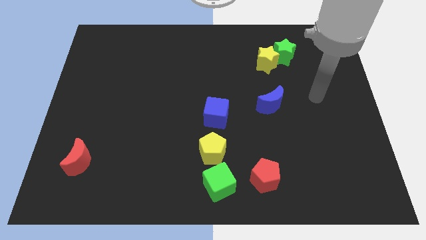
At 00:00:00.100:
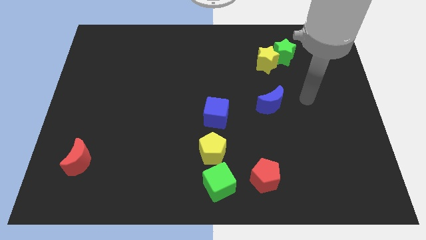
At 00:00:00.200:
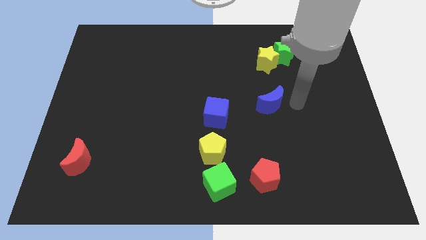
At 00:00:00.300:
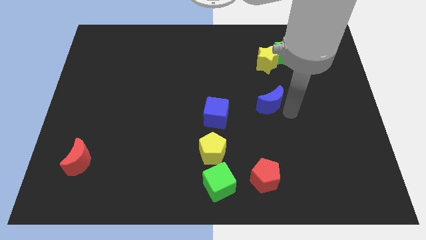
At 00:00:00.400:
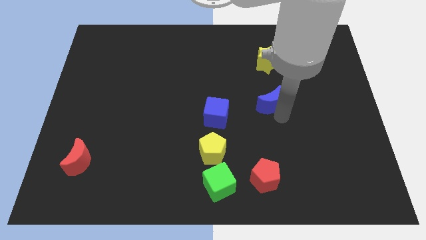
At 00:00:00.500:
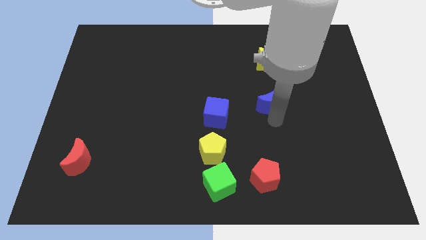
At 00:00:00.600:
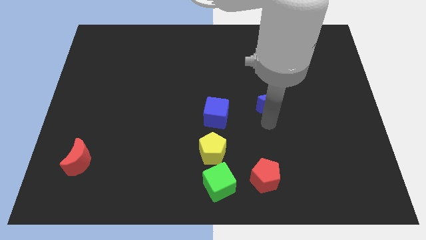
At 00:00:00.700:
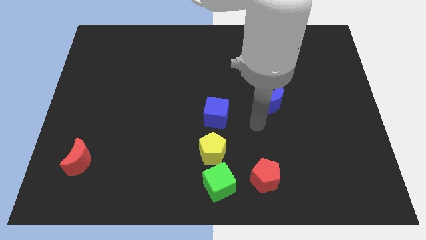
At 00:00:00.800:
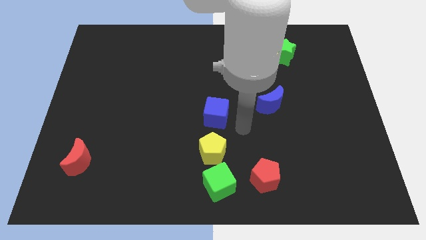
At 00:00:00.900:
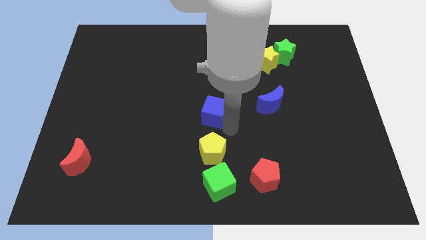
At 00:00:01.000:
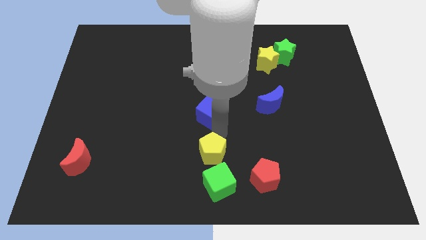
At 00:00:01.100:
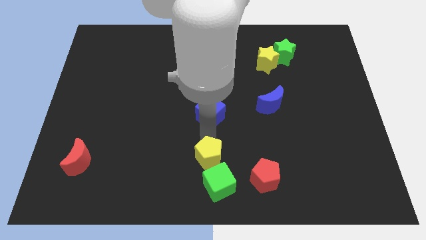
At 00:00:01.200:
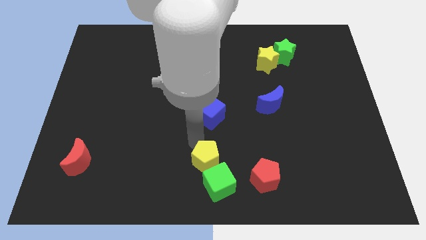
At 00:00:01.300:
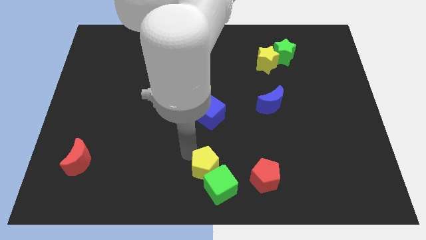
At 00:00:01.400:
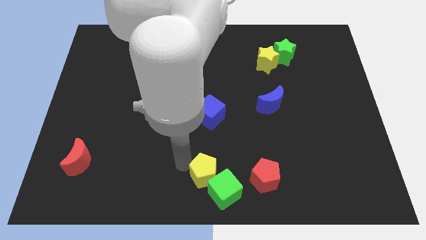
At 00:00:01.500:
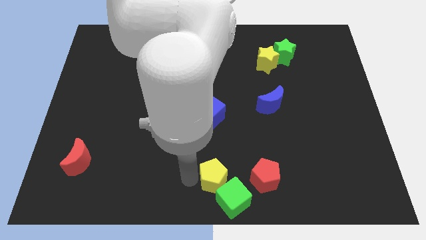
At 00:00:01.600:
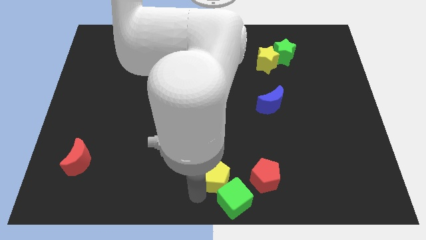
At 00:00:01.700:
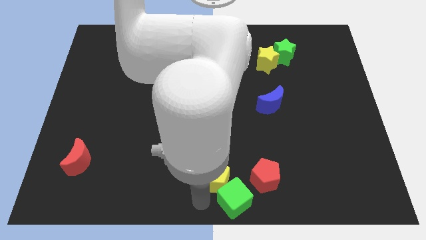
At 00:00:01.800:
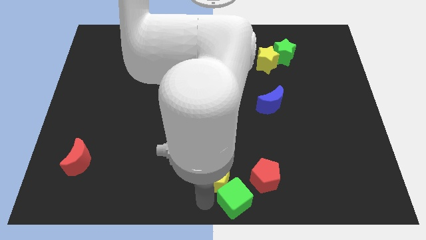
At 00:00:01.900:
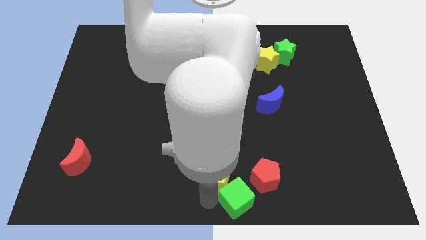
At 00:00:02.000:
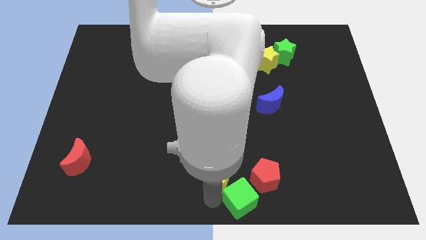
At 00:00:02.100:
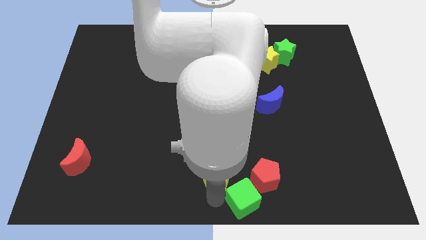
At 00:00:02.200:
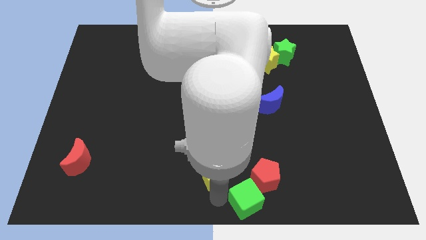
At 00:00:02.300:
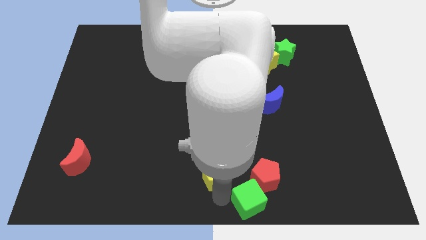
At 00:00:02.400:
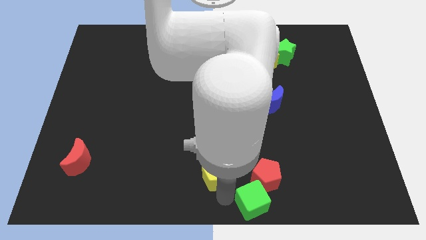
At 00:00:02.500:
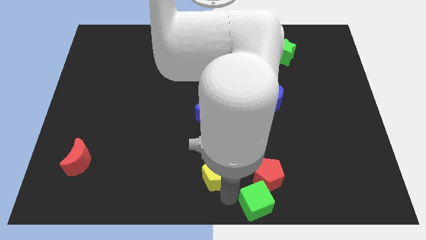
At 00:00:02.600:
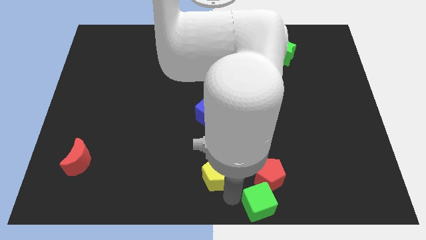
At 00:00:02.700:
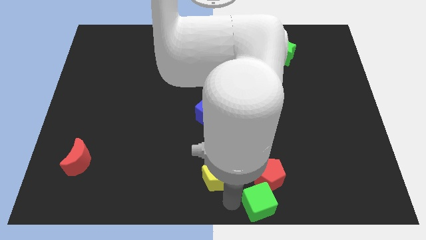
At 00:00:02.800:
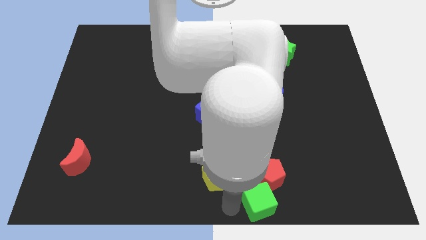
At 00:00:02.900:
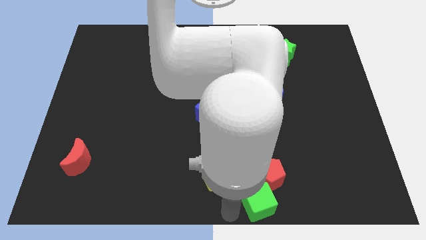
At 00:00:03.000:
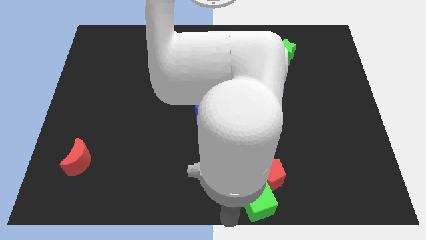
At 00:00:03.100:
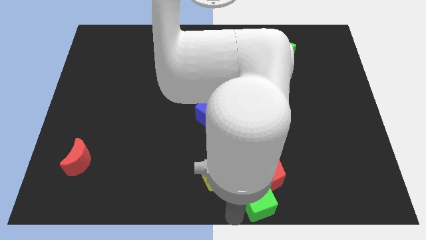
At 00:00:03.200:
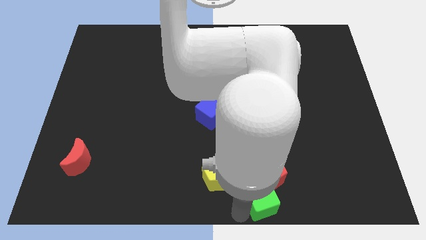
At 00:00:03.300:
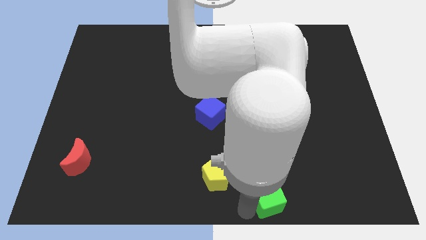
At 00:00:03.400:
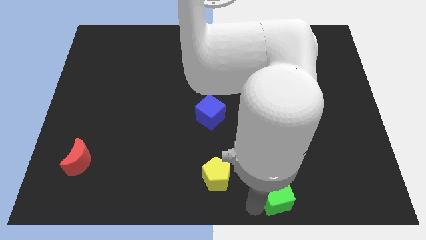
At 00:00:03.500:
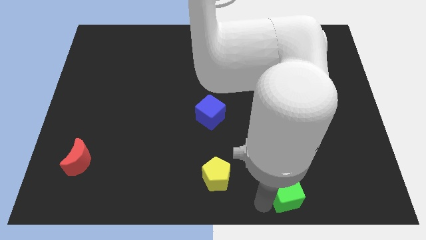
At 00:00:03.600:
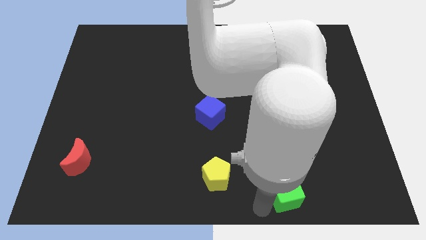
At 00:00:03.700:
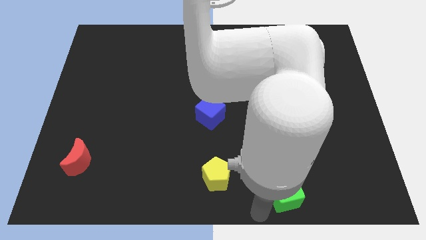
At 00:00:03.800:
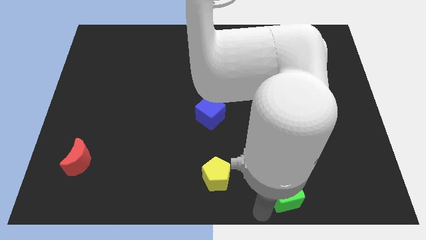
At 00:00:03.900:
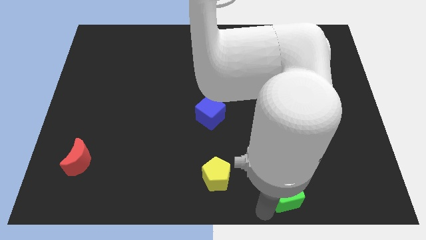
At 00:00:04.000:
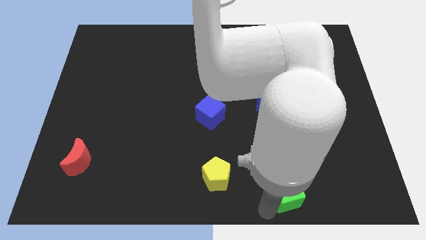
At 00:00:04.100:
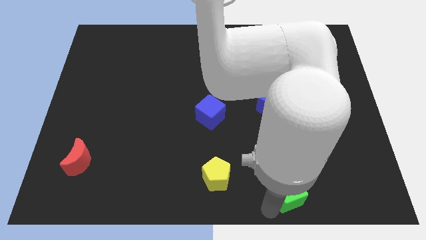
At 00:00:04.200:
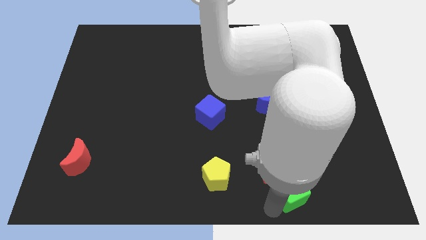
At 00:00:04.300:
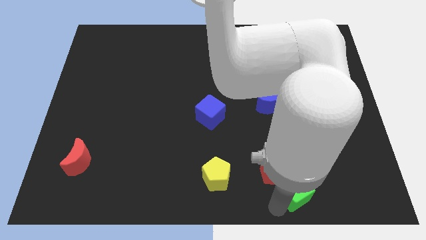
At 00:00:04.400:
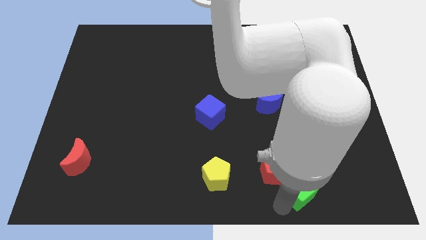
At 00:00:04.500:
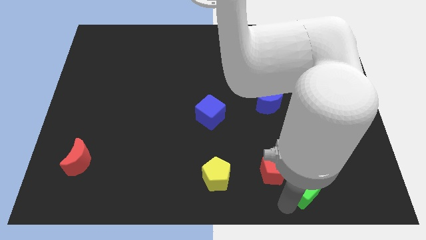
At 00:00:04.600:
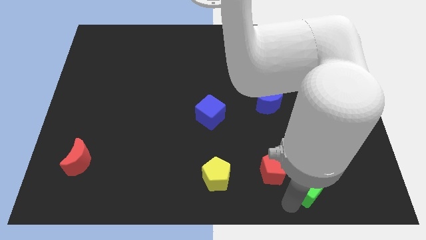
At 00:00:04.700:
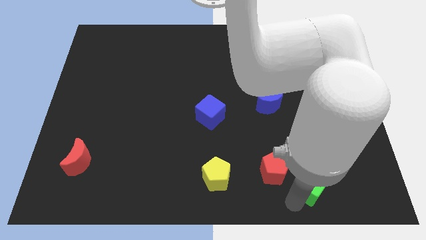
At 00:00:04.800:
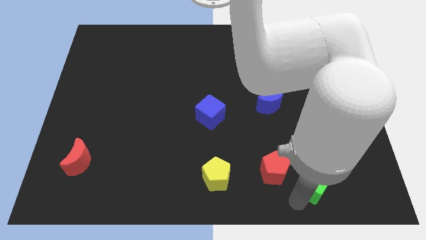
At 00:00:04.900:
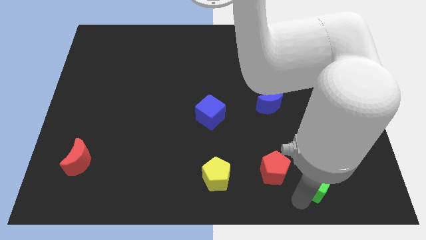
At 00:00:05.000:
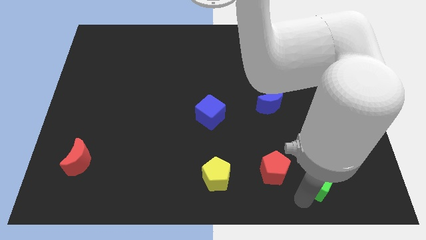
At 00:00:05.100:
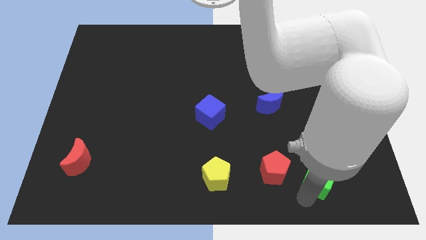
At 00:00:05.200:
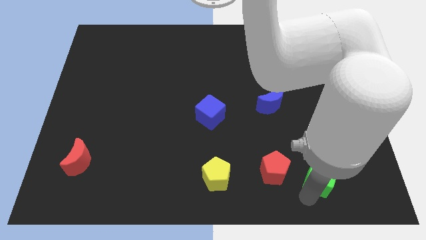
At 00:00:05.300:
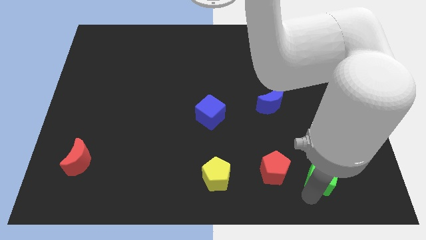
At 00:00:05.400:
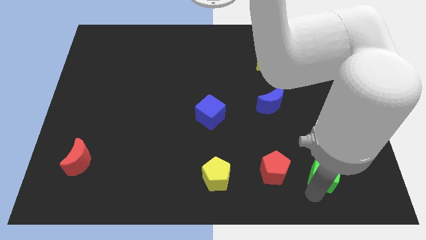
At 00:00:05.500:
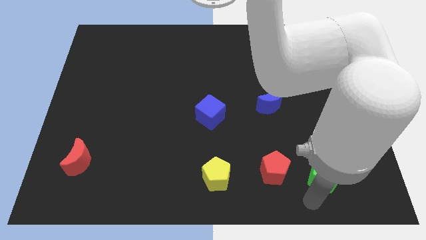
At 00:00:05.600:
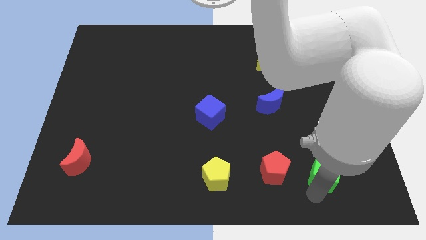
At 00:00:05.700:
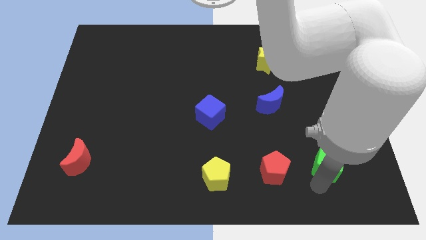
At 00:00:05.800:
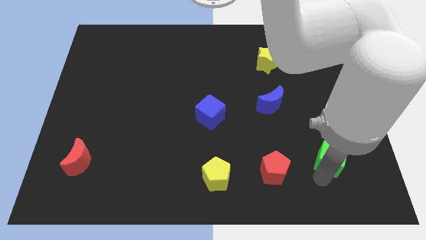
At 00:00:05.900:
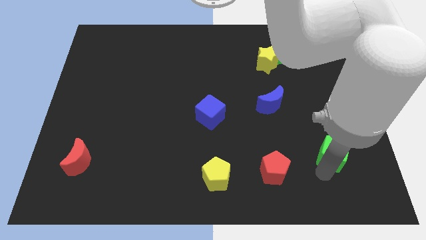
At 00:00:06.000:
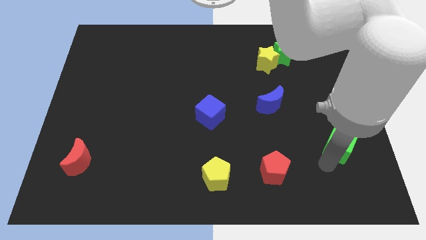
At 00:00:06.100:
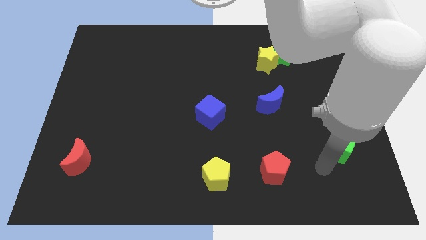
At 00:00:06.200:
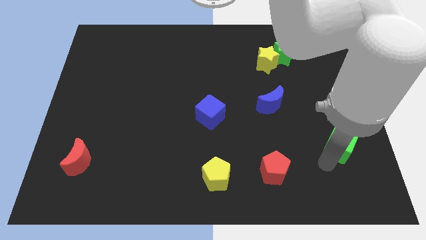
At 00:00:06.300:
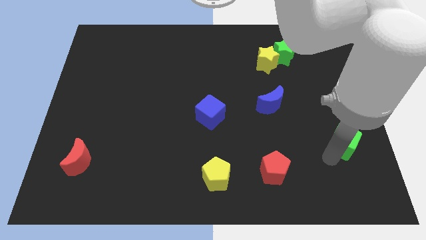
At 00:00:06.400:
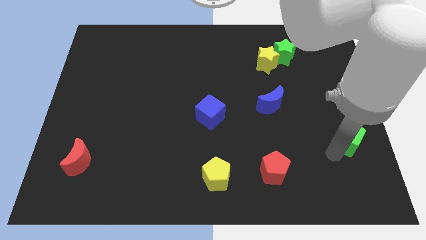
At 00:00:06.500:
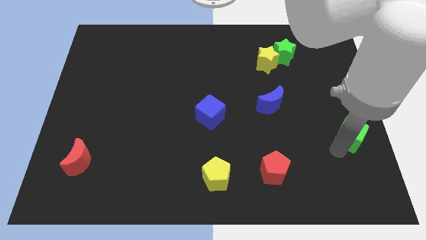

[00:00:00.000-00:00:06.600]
push the green cube to the center right
